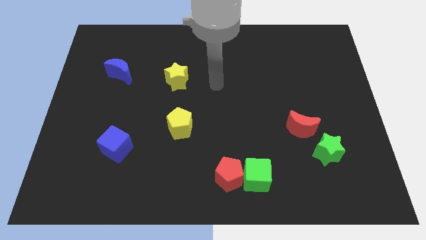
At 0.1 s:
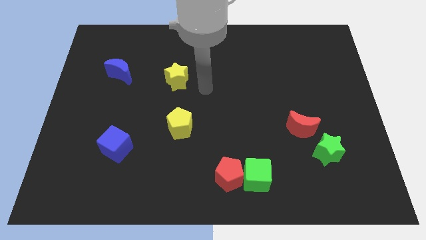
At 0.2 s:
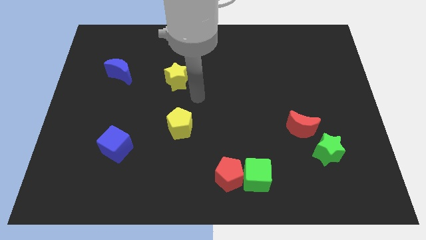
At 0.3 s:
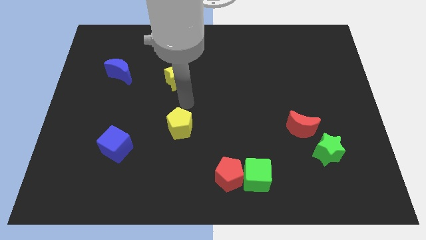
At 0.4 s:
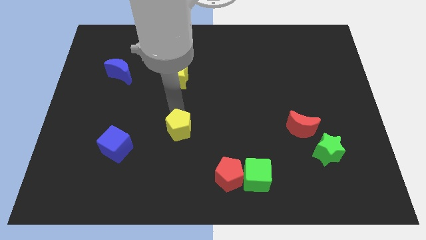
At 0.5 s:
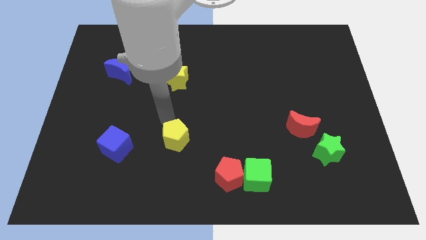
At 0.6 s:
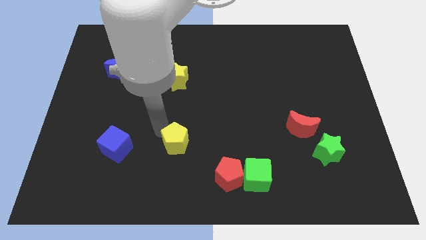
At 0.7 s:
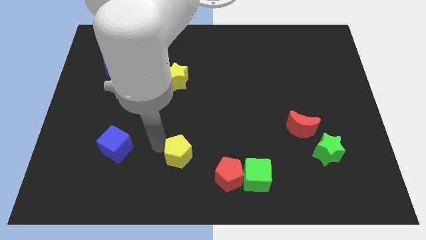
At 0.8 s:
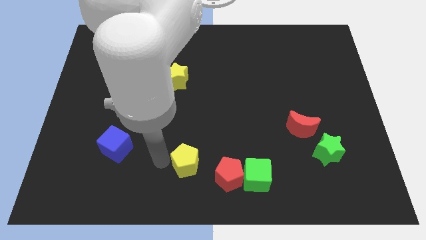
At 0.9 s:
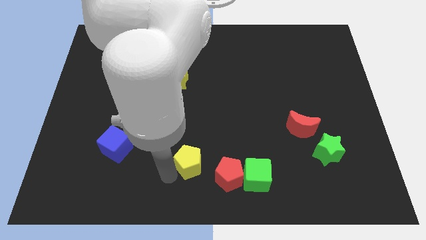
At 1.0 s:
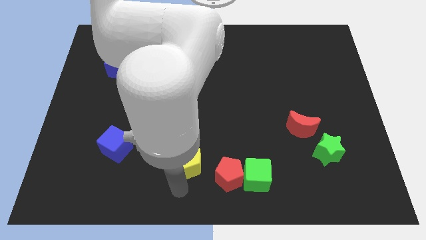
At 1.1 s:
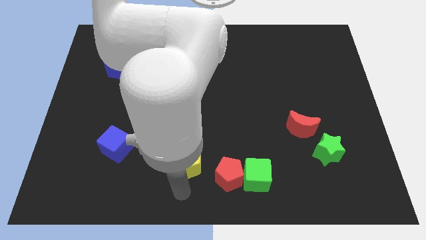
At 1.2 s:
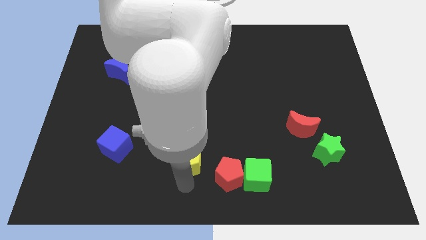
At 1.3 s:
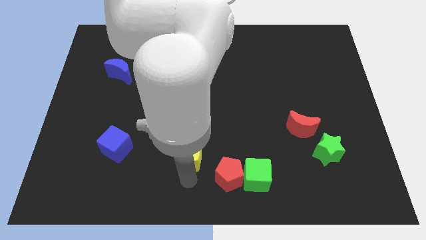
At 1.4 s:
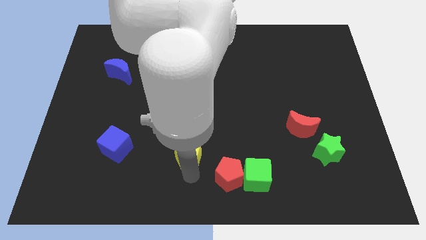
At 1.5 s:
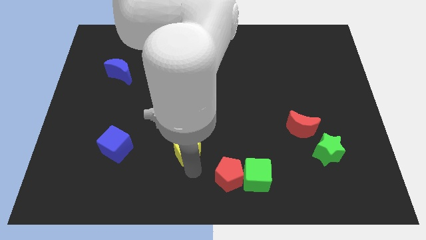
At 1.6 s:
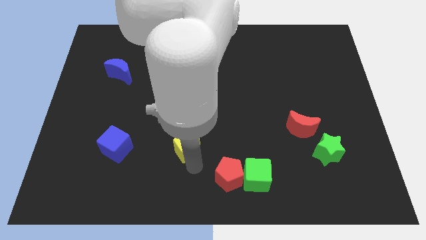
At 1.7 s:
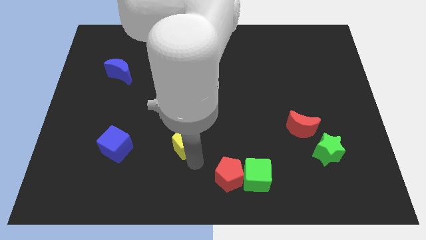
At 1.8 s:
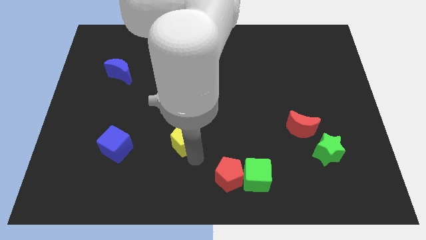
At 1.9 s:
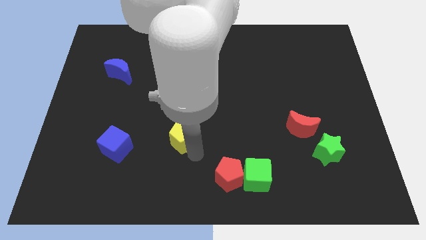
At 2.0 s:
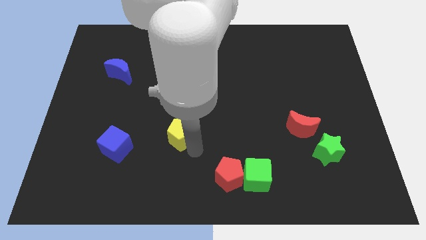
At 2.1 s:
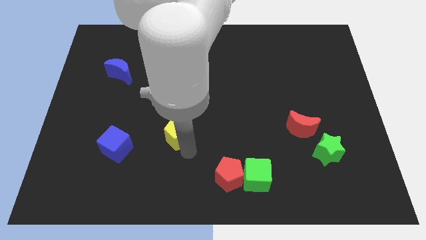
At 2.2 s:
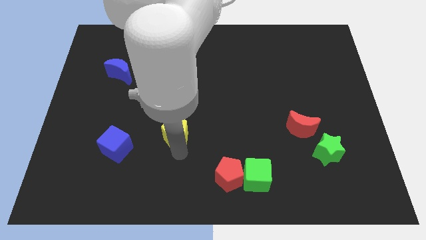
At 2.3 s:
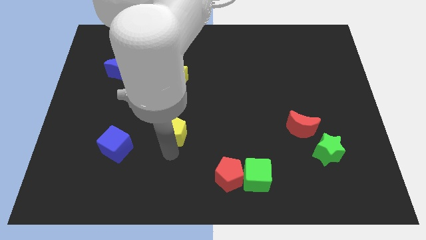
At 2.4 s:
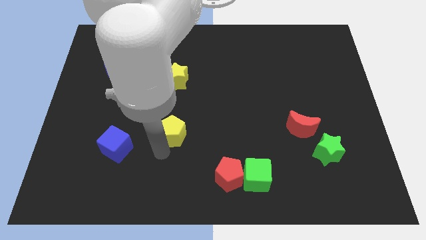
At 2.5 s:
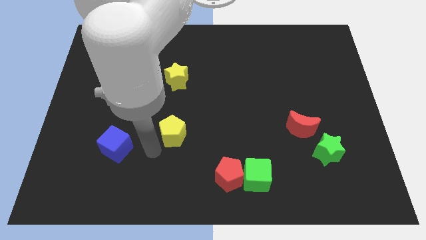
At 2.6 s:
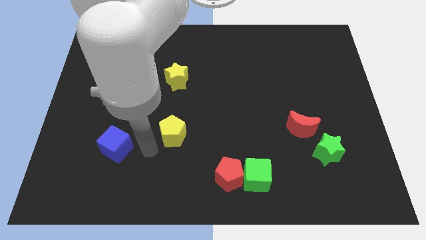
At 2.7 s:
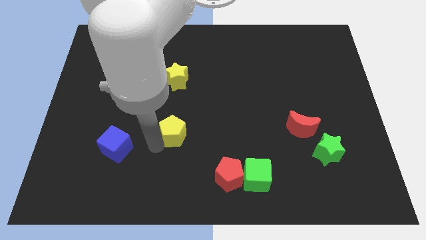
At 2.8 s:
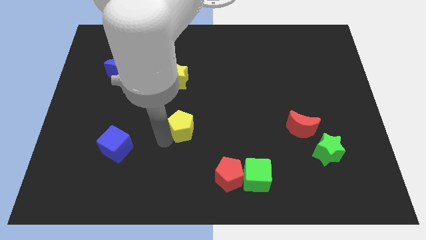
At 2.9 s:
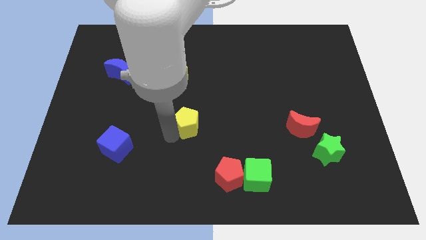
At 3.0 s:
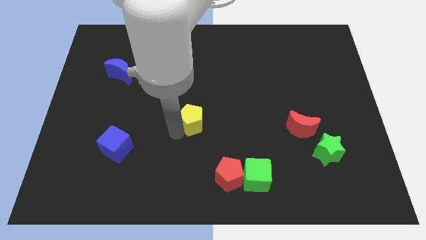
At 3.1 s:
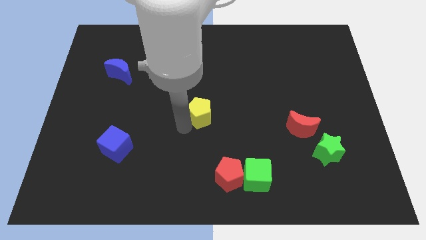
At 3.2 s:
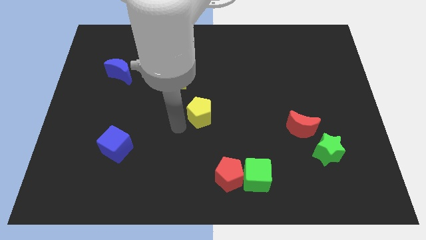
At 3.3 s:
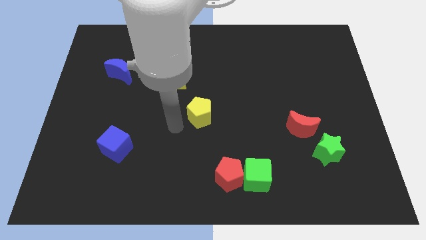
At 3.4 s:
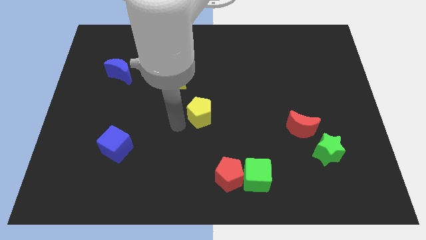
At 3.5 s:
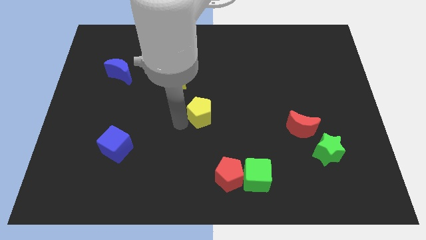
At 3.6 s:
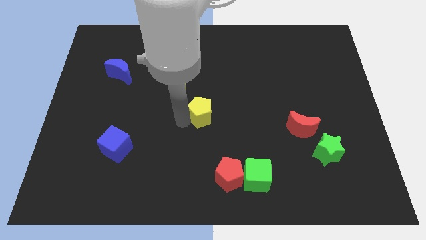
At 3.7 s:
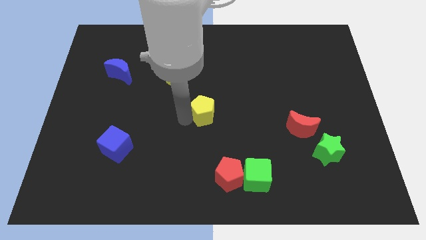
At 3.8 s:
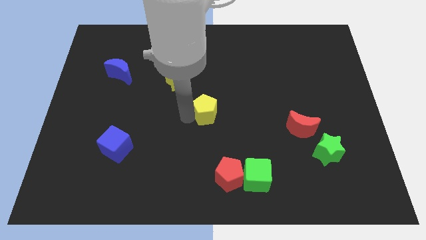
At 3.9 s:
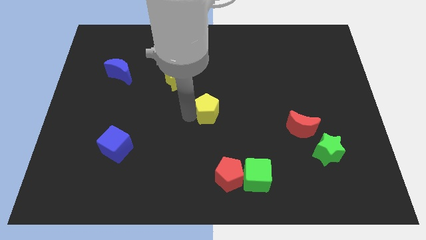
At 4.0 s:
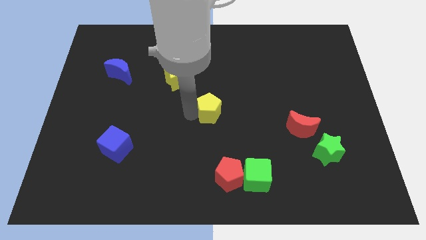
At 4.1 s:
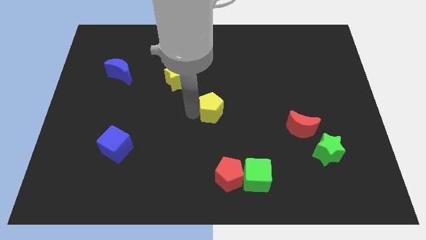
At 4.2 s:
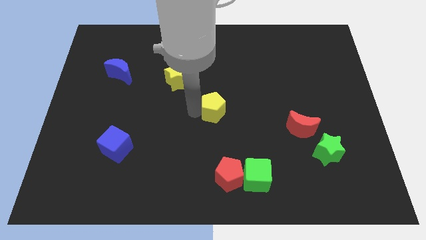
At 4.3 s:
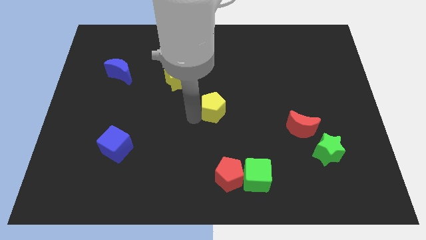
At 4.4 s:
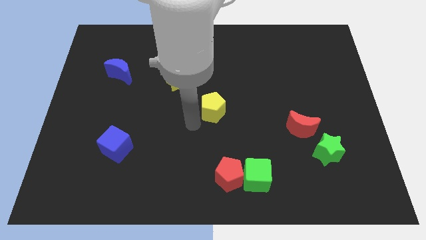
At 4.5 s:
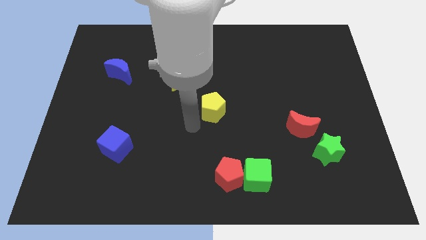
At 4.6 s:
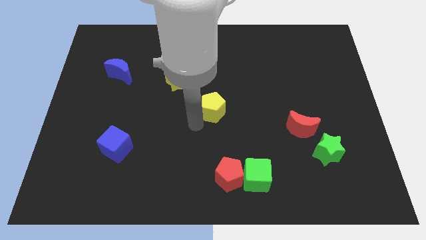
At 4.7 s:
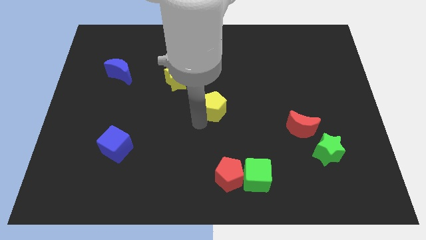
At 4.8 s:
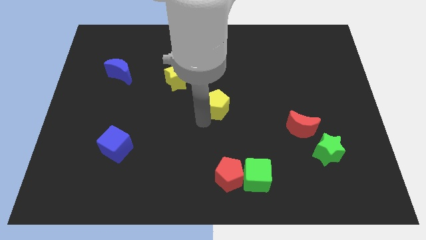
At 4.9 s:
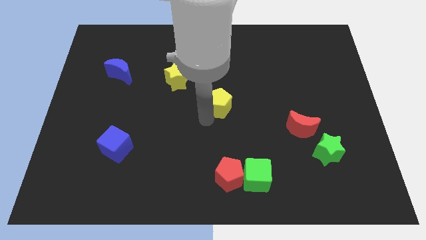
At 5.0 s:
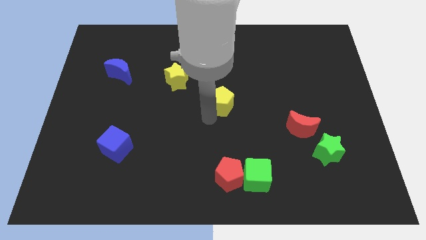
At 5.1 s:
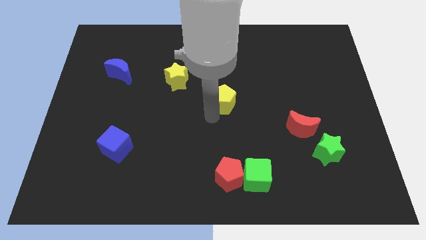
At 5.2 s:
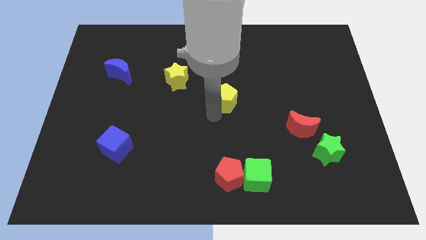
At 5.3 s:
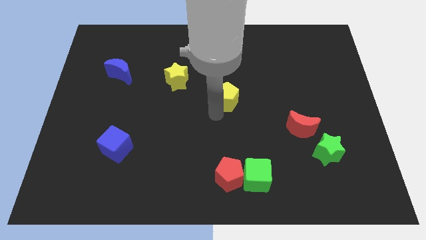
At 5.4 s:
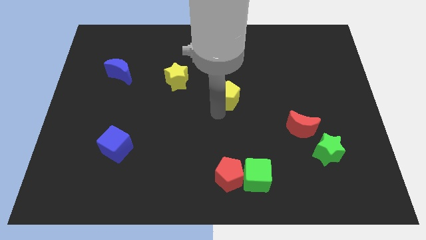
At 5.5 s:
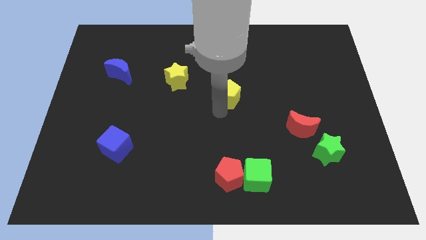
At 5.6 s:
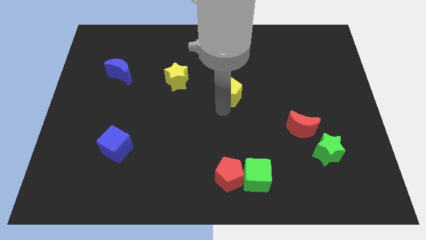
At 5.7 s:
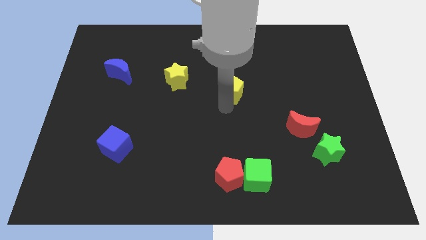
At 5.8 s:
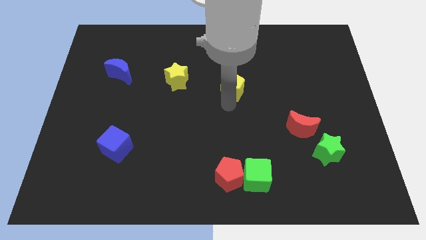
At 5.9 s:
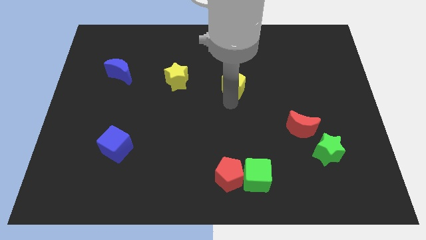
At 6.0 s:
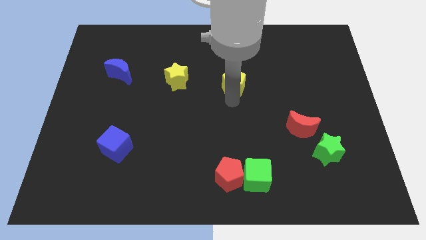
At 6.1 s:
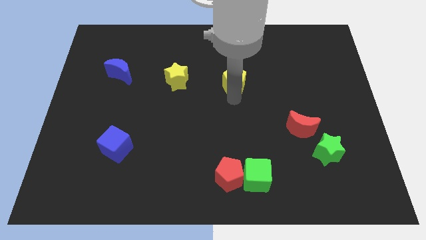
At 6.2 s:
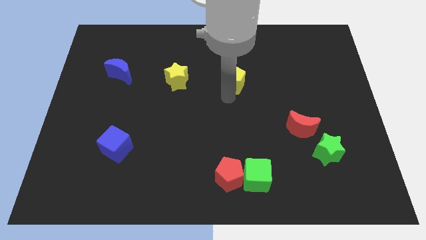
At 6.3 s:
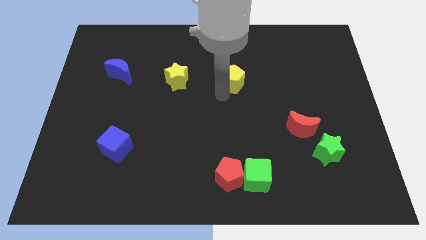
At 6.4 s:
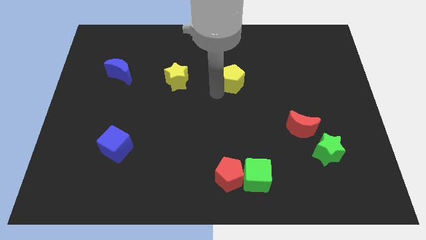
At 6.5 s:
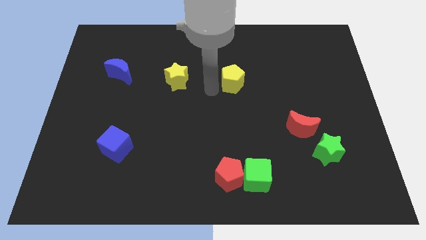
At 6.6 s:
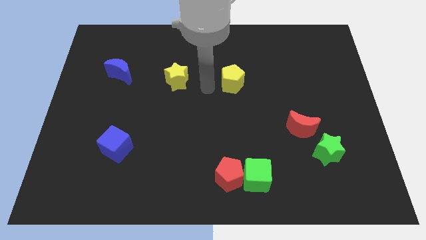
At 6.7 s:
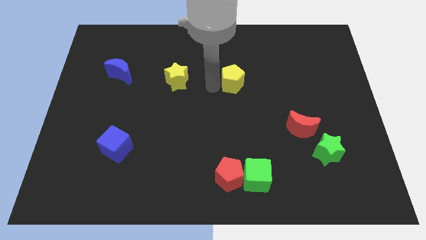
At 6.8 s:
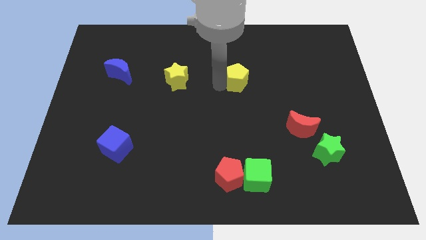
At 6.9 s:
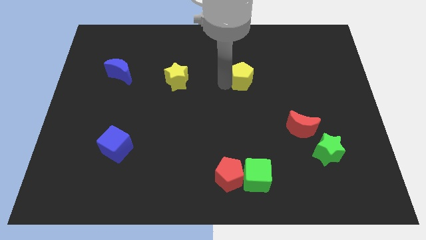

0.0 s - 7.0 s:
slide the yellow pentagon upwards and to the right

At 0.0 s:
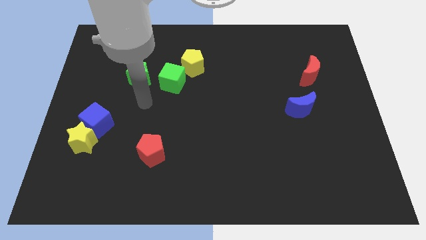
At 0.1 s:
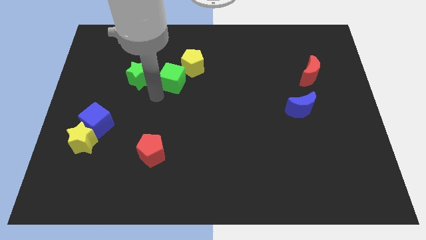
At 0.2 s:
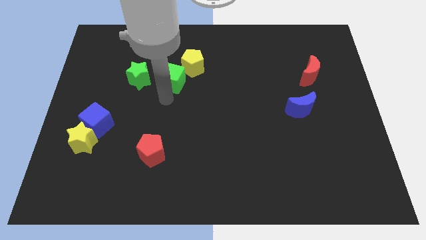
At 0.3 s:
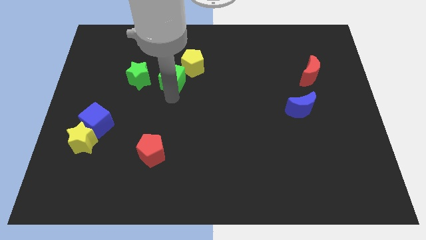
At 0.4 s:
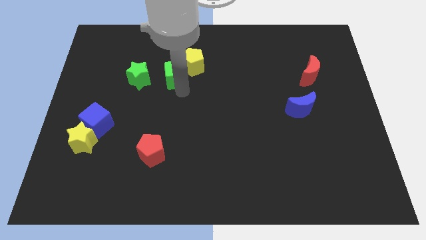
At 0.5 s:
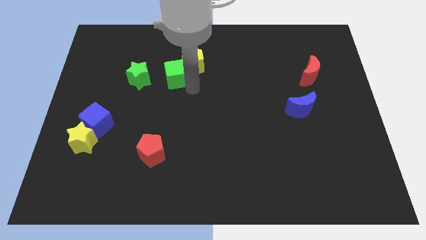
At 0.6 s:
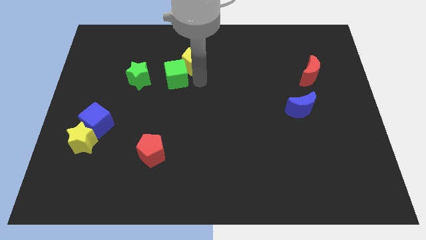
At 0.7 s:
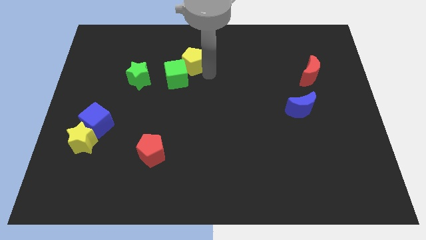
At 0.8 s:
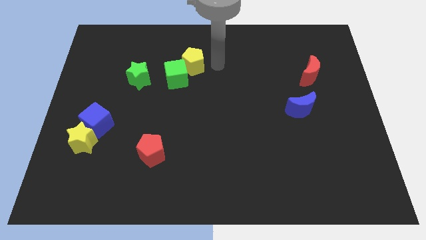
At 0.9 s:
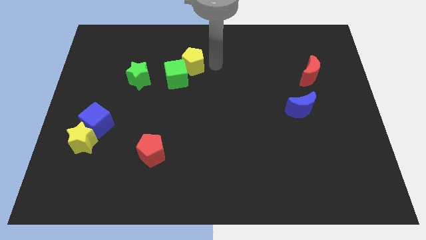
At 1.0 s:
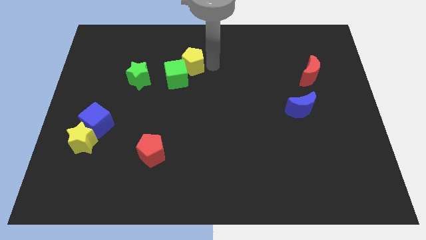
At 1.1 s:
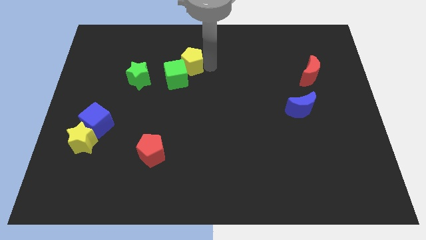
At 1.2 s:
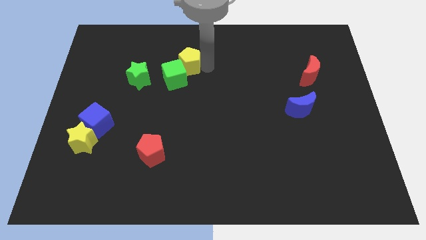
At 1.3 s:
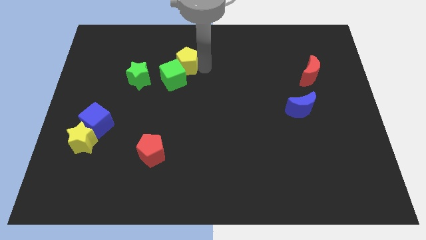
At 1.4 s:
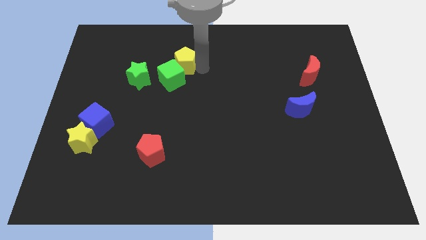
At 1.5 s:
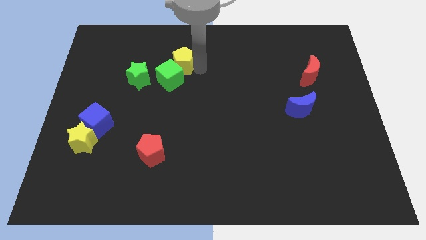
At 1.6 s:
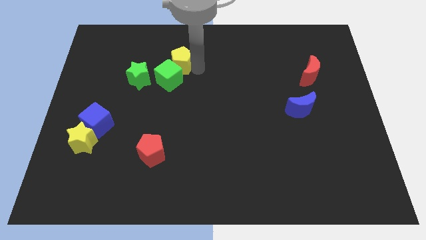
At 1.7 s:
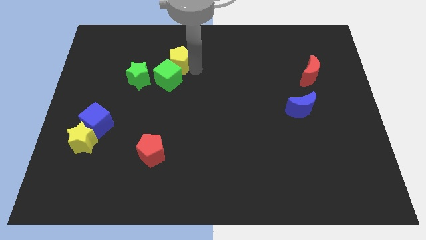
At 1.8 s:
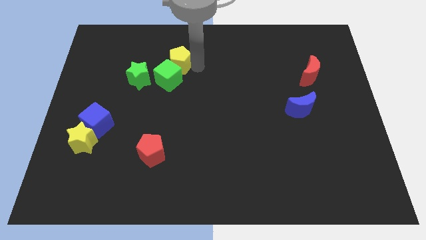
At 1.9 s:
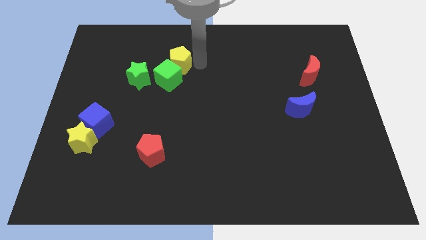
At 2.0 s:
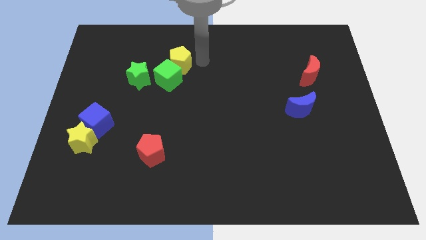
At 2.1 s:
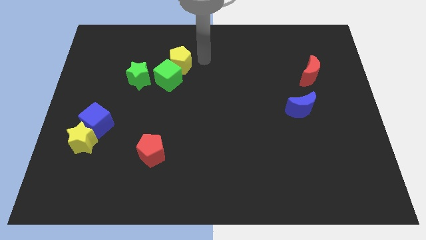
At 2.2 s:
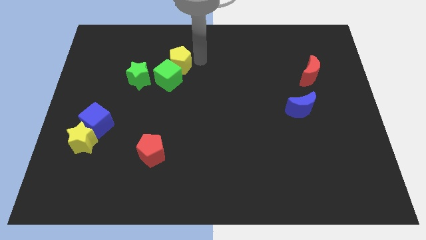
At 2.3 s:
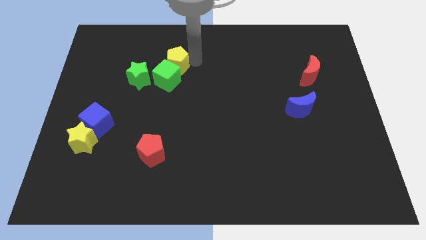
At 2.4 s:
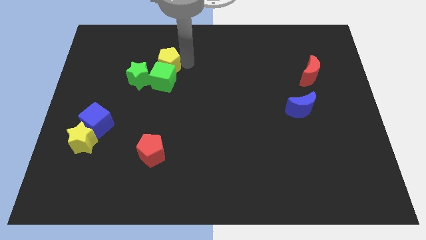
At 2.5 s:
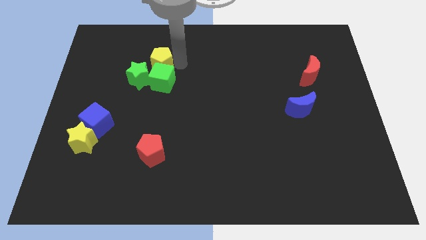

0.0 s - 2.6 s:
slide the yellow pentagon left slightly
